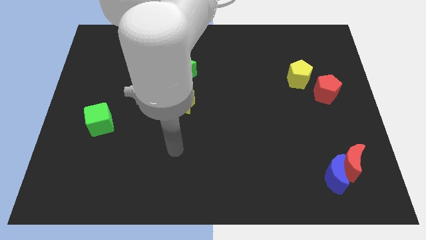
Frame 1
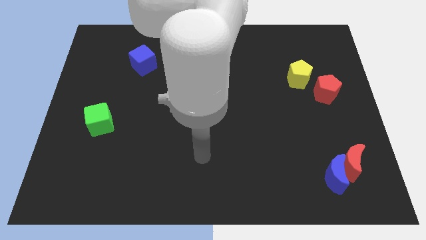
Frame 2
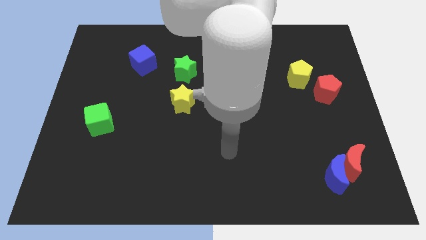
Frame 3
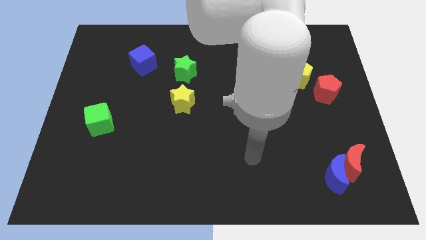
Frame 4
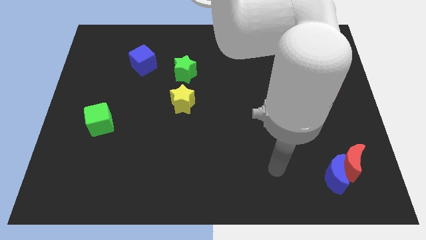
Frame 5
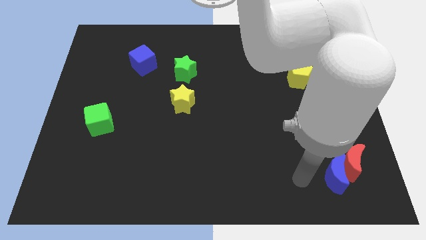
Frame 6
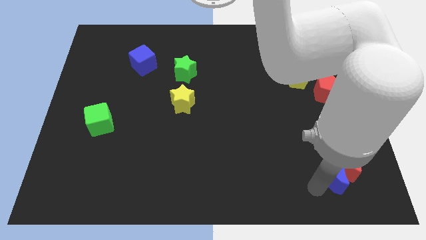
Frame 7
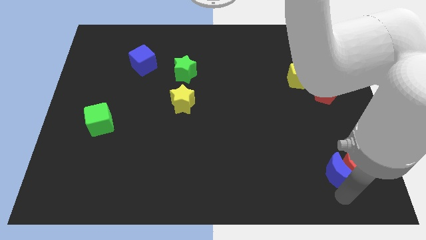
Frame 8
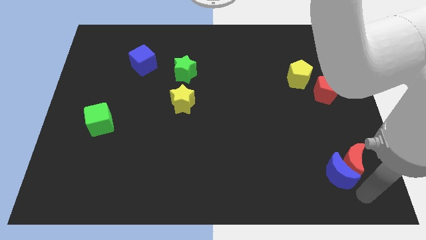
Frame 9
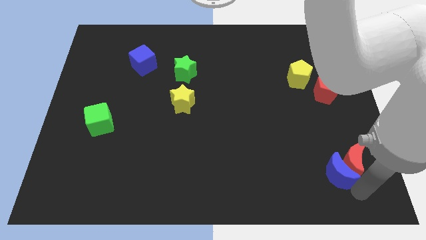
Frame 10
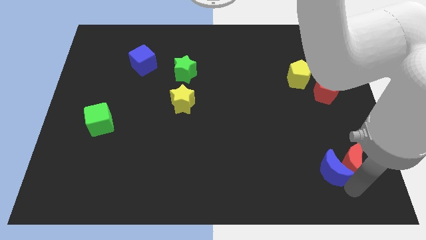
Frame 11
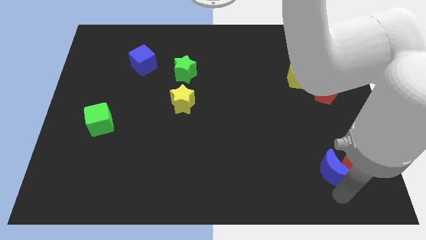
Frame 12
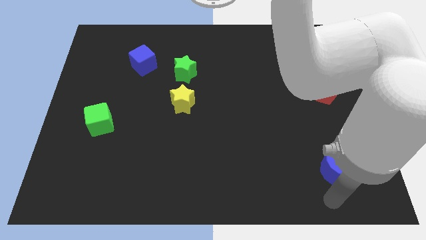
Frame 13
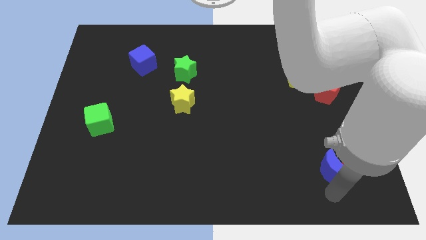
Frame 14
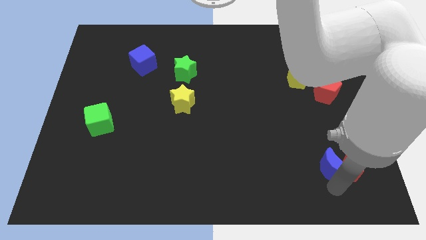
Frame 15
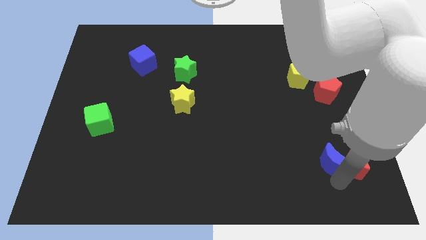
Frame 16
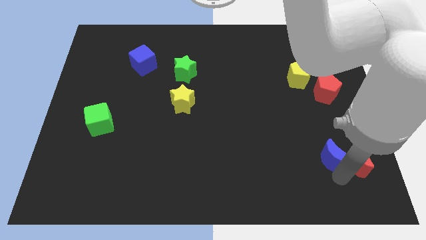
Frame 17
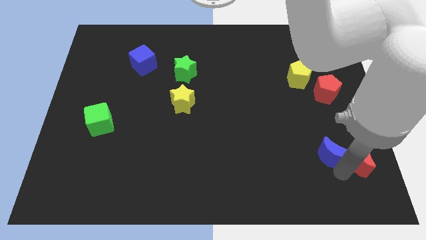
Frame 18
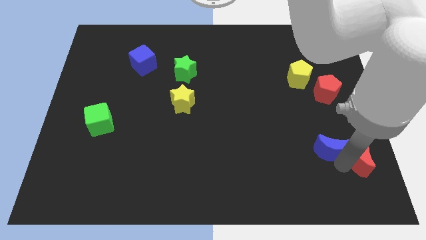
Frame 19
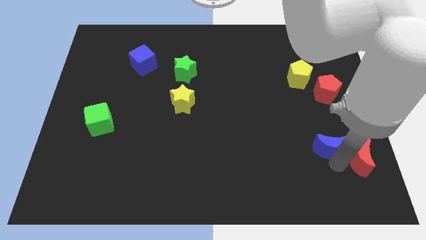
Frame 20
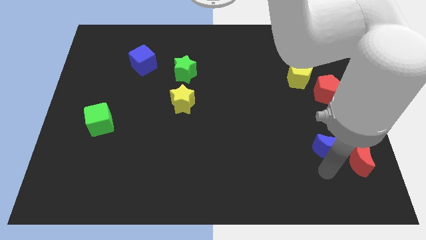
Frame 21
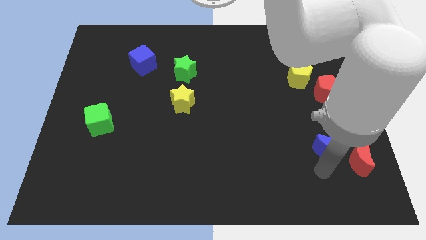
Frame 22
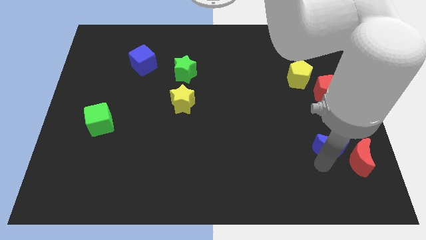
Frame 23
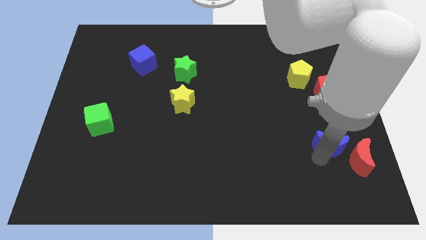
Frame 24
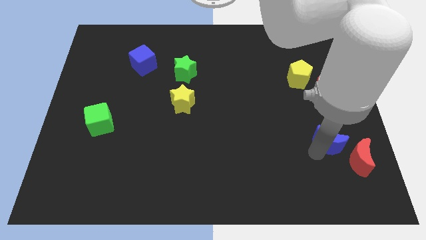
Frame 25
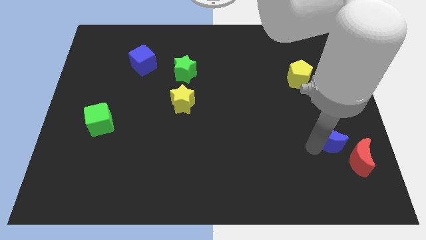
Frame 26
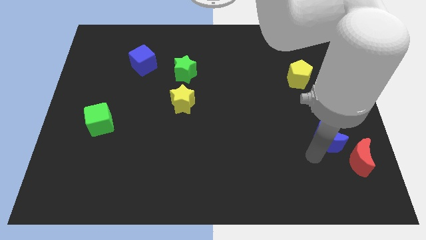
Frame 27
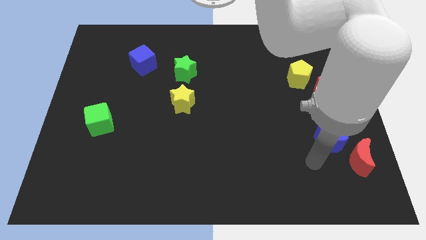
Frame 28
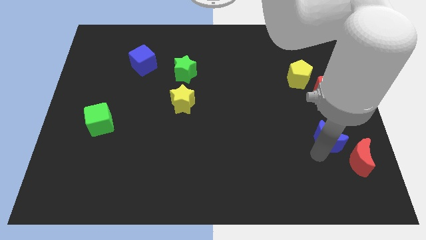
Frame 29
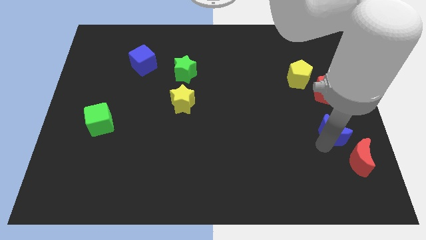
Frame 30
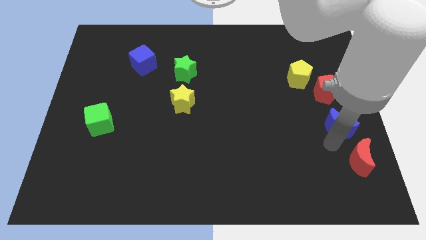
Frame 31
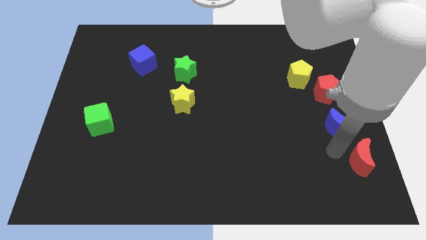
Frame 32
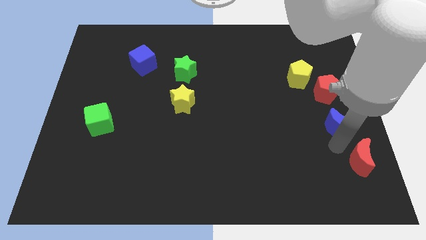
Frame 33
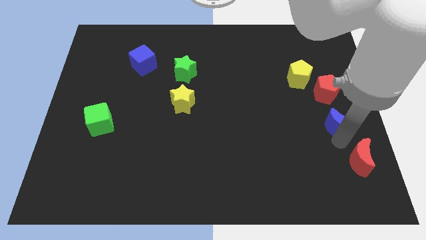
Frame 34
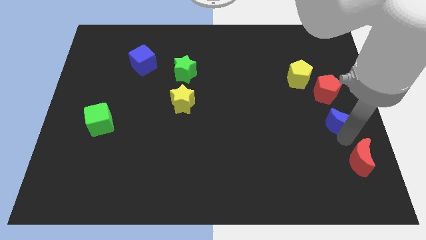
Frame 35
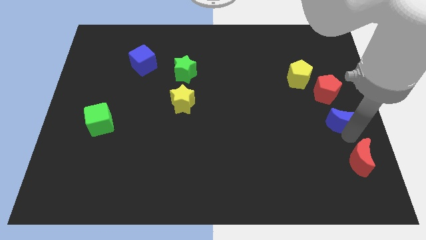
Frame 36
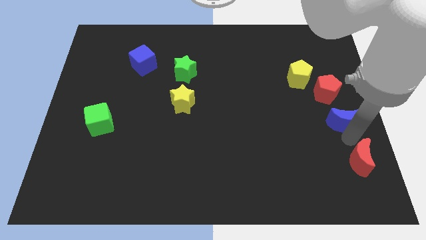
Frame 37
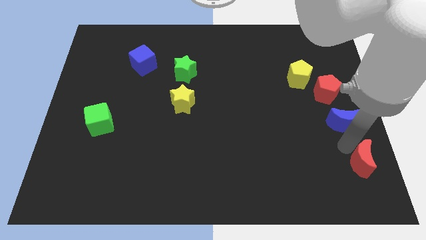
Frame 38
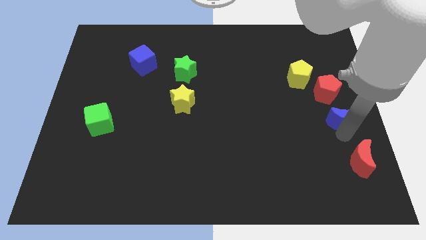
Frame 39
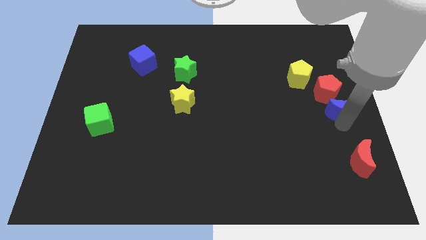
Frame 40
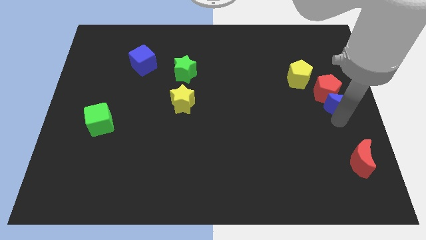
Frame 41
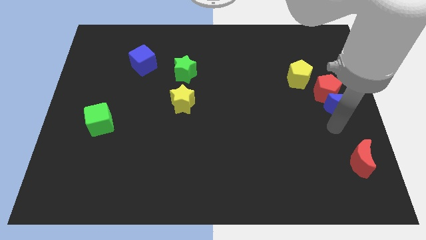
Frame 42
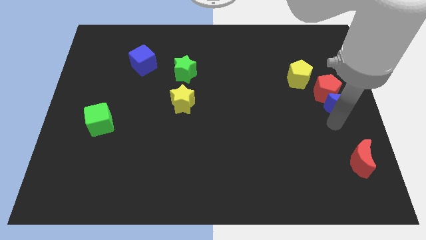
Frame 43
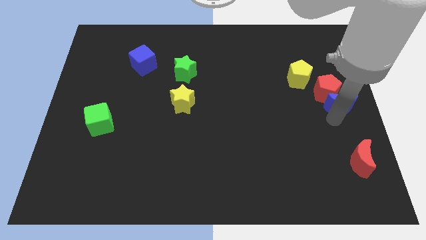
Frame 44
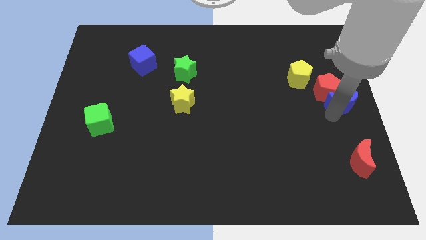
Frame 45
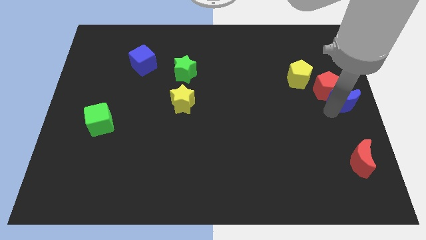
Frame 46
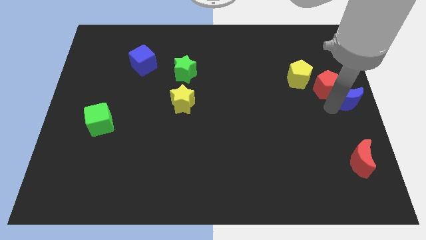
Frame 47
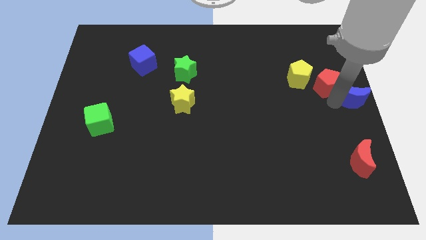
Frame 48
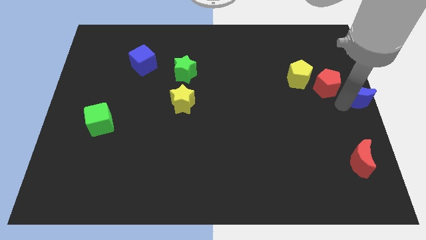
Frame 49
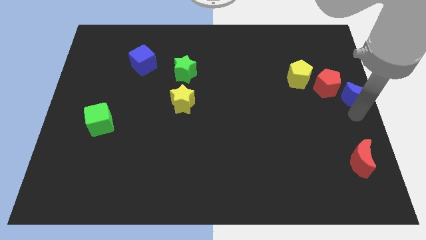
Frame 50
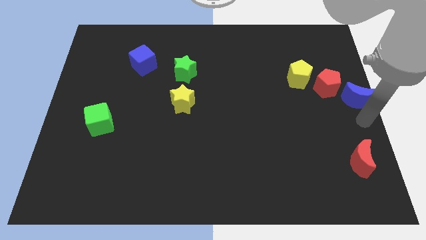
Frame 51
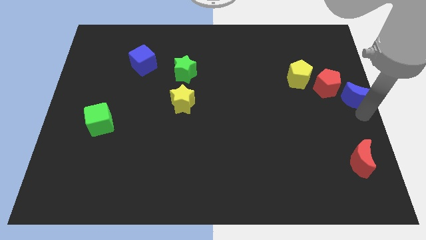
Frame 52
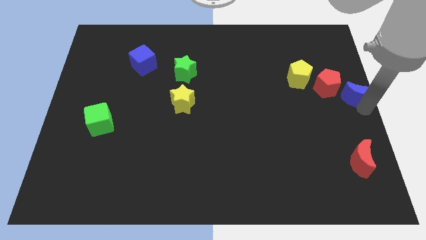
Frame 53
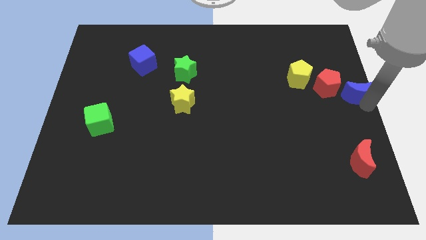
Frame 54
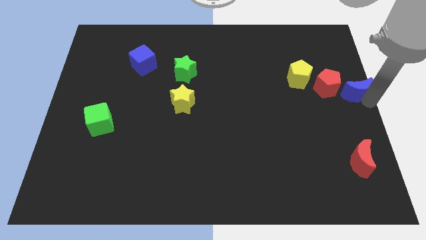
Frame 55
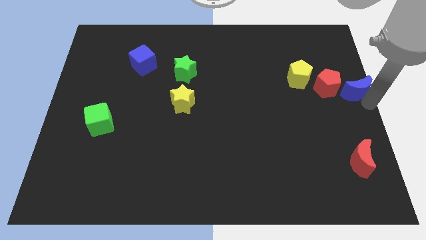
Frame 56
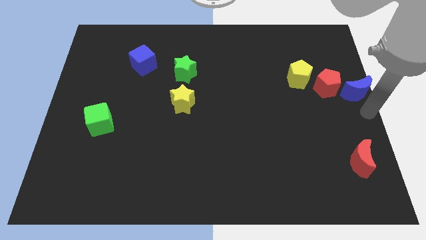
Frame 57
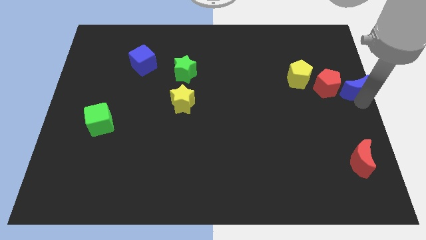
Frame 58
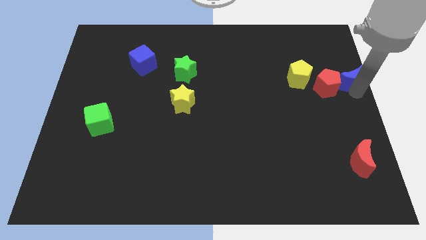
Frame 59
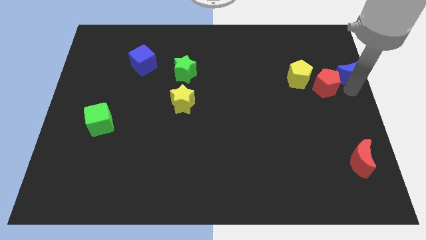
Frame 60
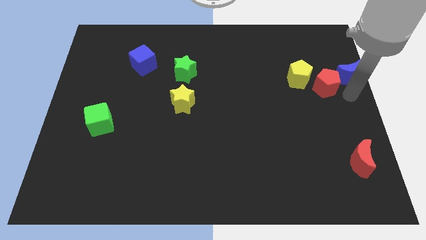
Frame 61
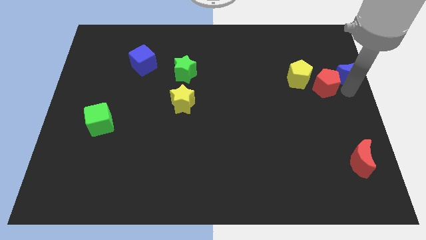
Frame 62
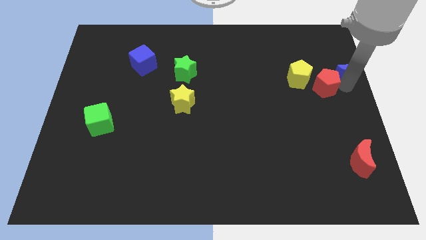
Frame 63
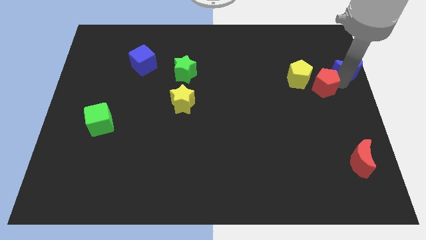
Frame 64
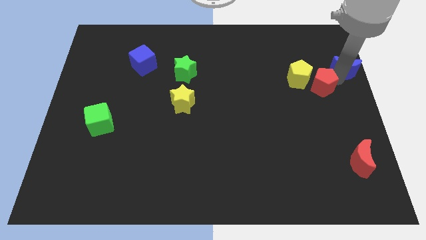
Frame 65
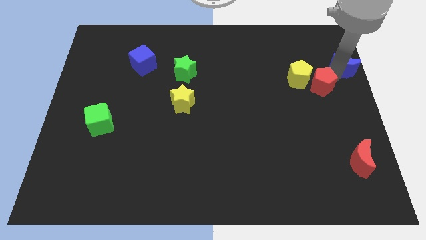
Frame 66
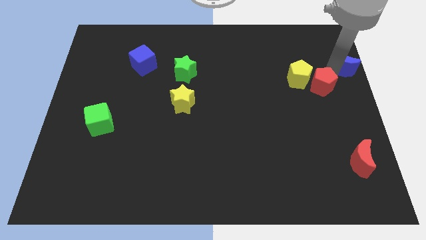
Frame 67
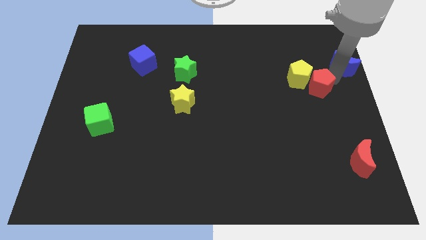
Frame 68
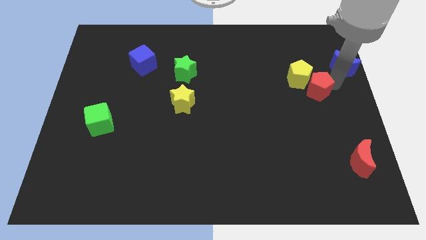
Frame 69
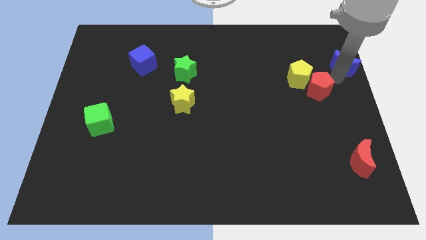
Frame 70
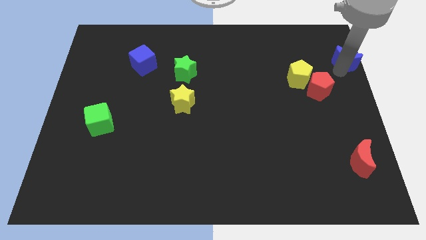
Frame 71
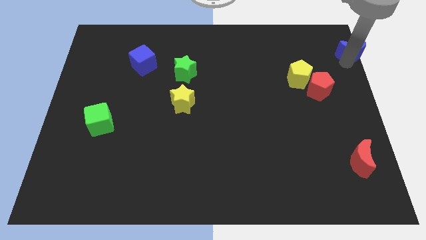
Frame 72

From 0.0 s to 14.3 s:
move the blue moon to the top right corner
